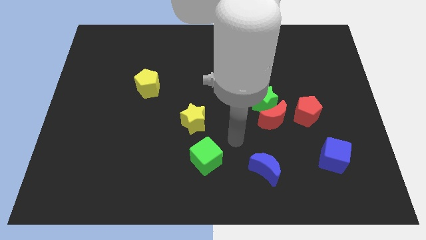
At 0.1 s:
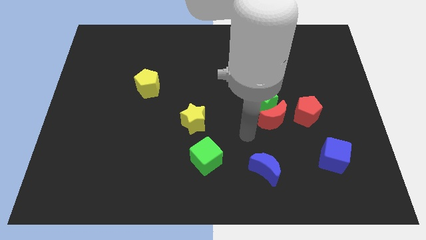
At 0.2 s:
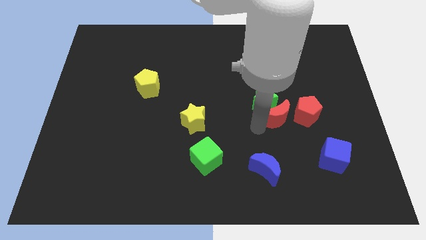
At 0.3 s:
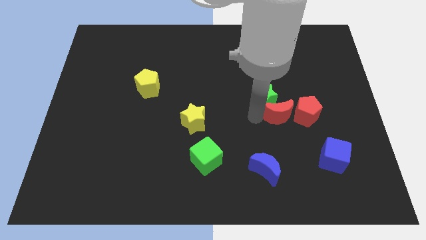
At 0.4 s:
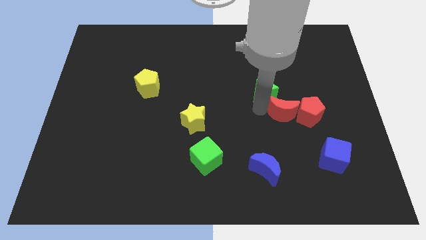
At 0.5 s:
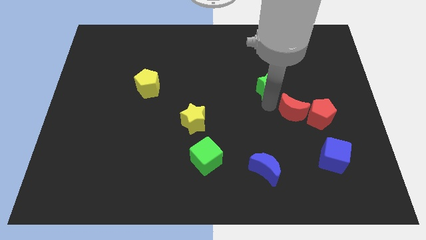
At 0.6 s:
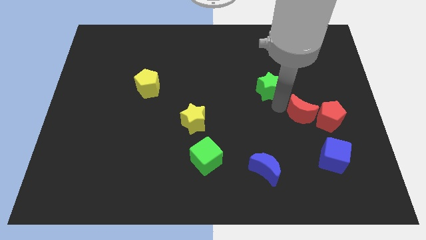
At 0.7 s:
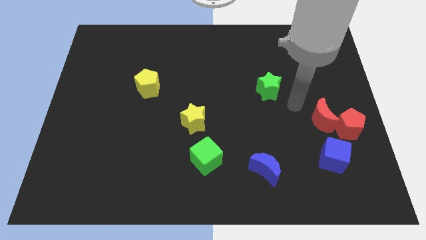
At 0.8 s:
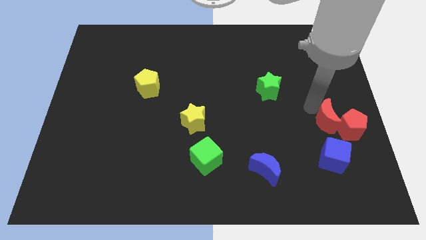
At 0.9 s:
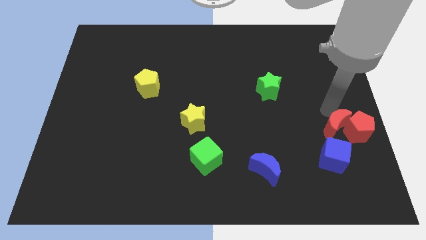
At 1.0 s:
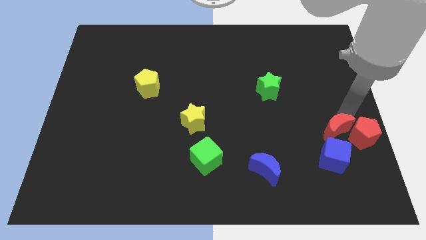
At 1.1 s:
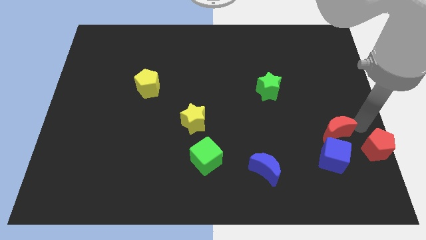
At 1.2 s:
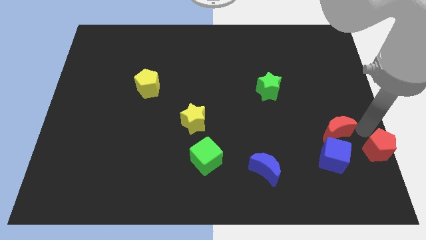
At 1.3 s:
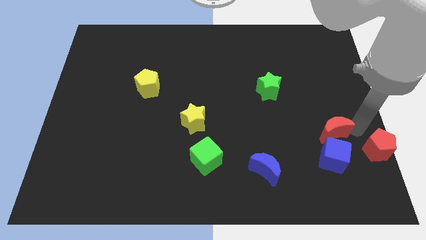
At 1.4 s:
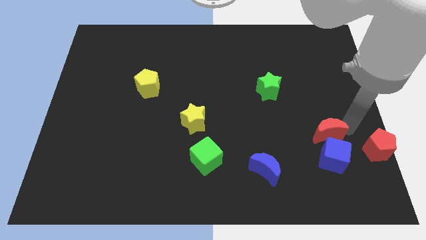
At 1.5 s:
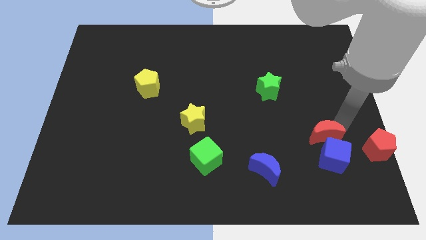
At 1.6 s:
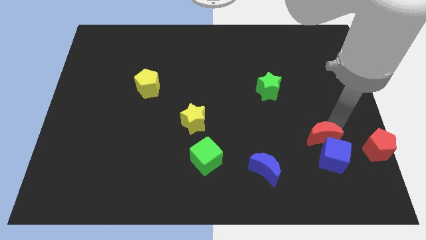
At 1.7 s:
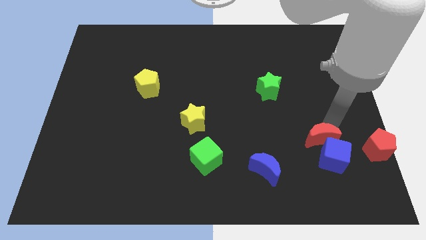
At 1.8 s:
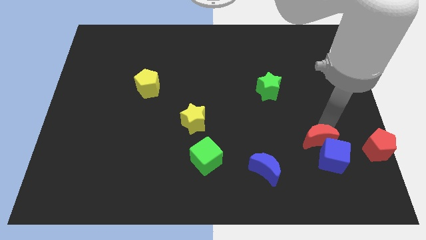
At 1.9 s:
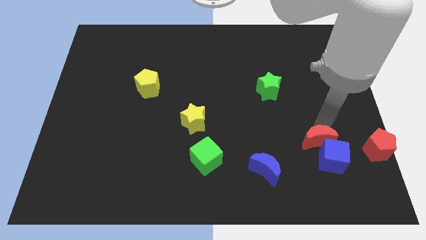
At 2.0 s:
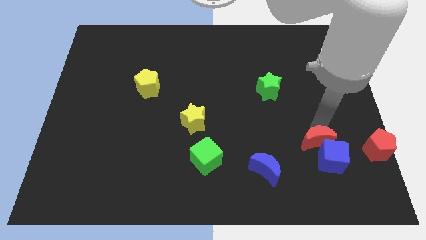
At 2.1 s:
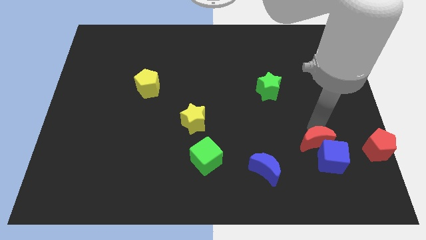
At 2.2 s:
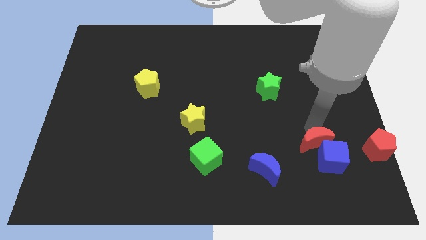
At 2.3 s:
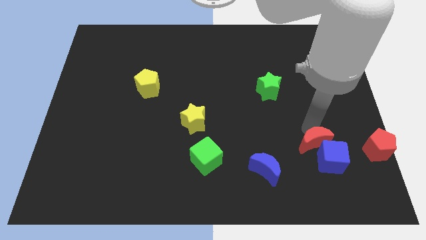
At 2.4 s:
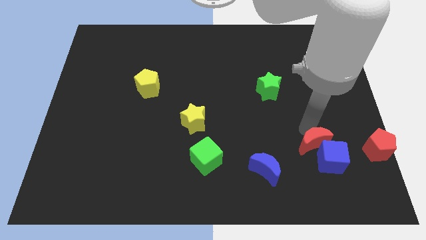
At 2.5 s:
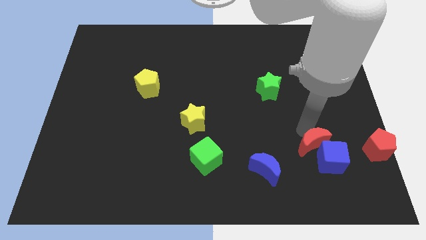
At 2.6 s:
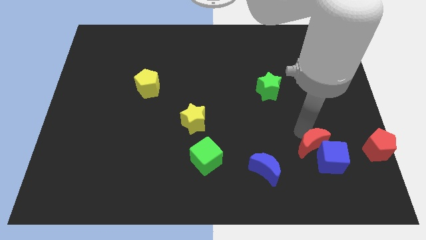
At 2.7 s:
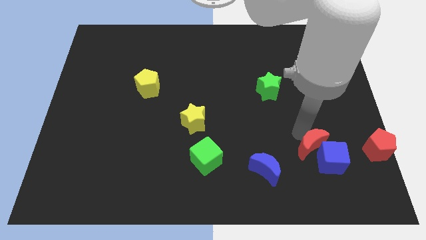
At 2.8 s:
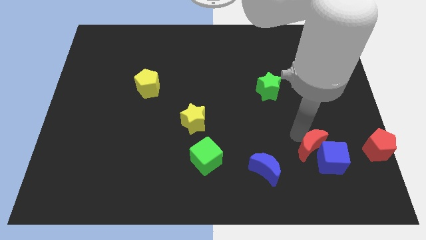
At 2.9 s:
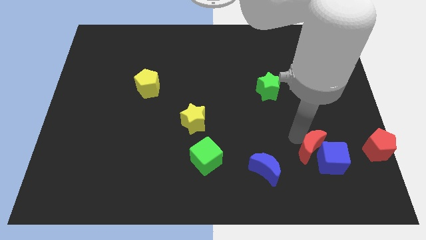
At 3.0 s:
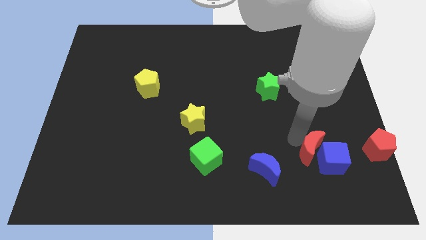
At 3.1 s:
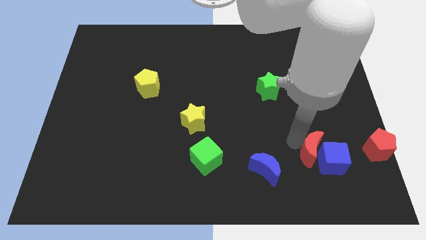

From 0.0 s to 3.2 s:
move the red moon away from the green star and red pentagon

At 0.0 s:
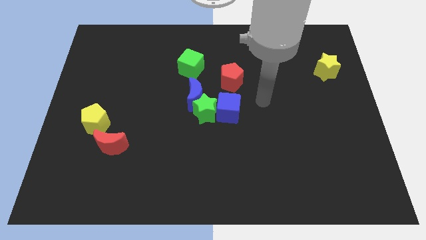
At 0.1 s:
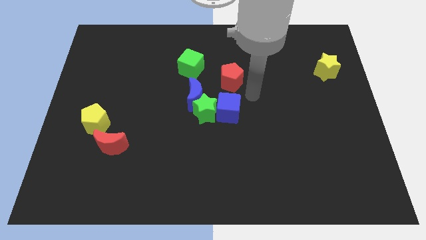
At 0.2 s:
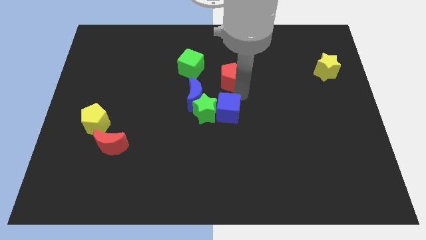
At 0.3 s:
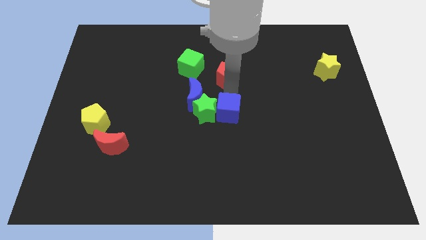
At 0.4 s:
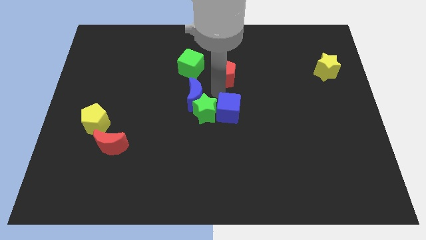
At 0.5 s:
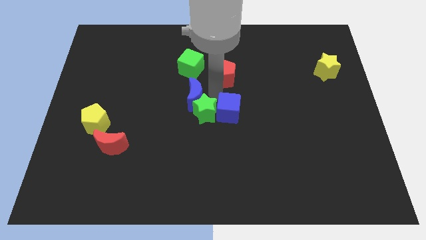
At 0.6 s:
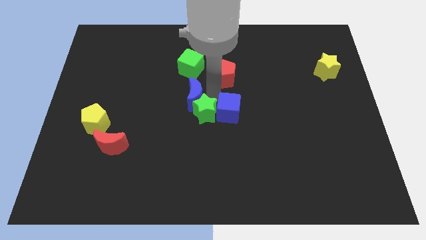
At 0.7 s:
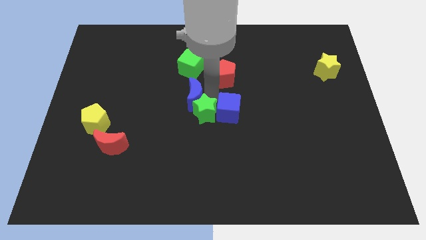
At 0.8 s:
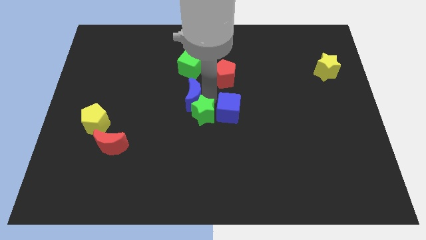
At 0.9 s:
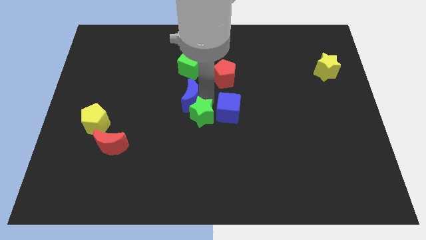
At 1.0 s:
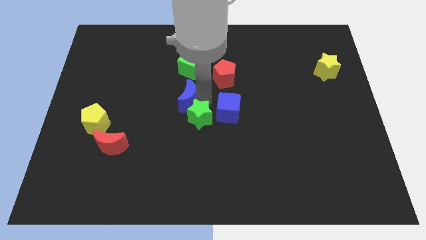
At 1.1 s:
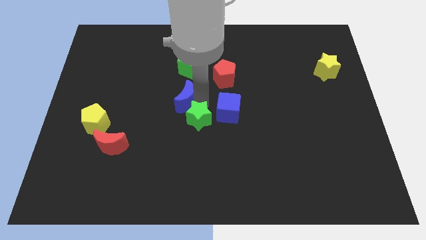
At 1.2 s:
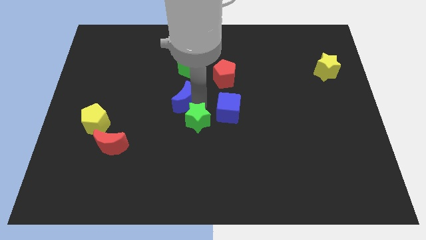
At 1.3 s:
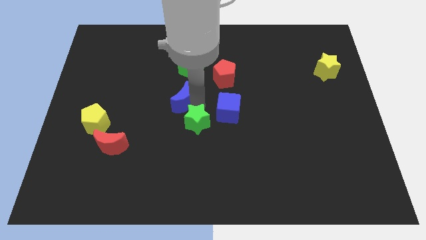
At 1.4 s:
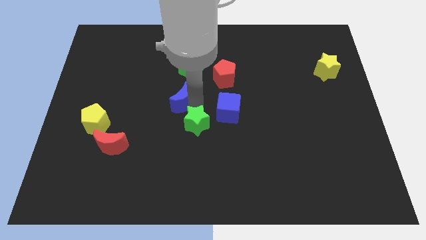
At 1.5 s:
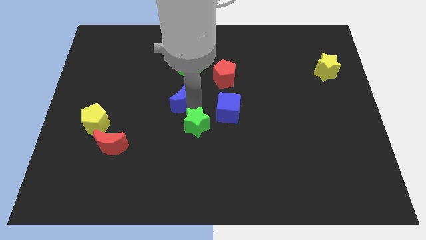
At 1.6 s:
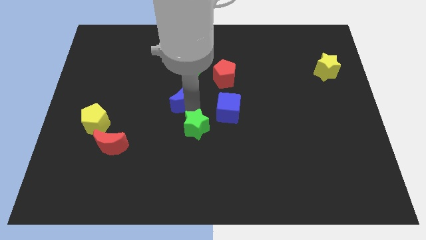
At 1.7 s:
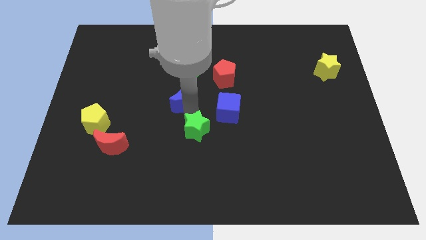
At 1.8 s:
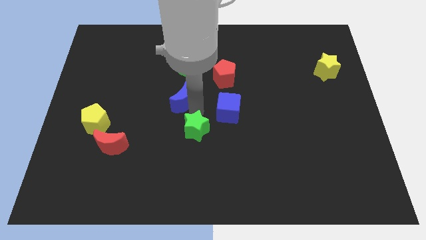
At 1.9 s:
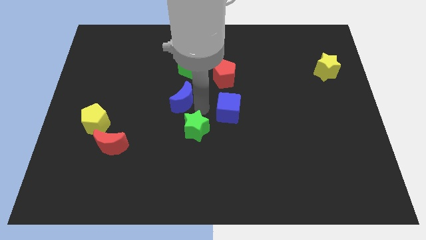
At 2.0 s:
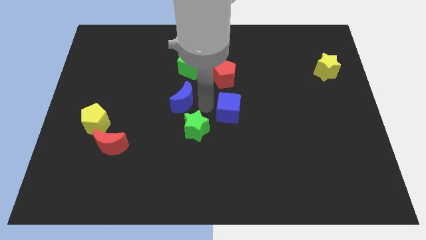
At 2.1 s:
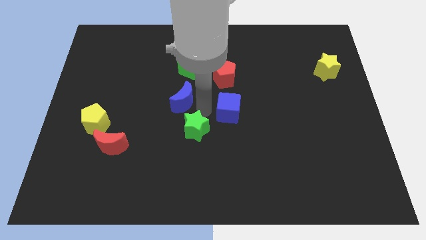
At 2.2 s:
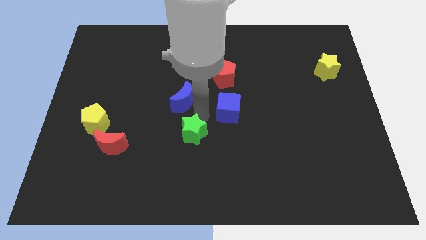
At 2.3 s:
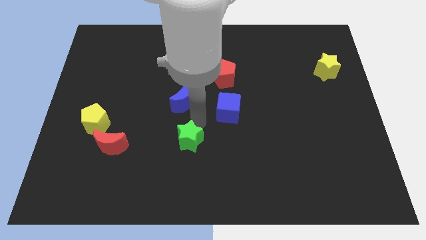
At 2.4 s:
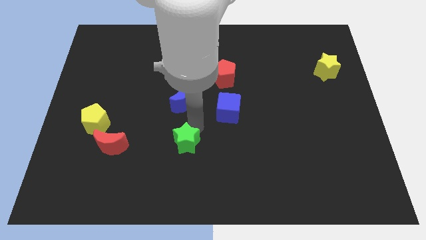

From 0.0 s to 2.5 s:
separate the green star from the blue moon and blue cube

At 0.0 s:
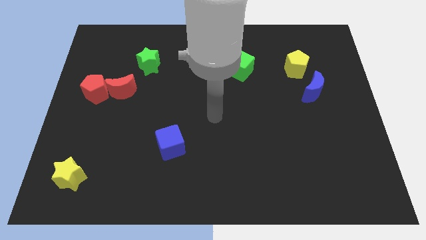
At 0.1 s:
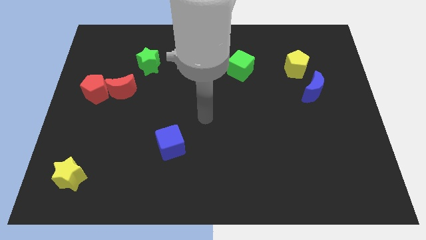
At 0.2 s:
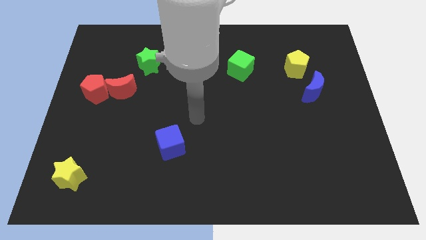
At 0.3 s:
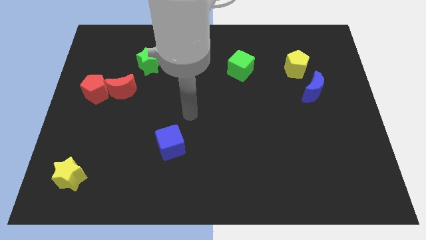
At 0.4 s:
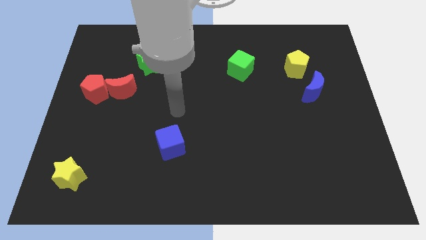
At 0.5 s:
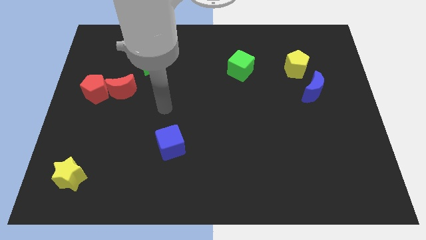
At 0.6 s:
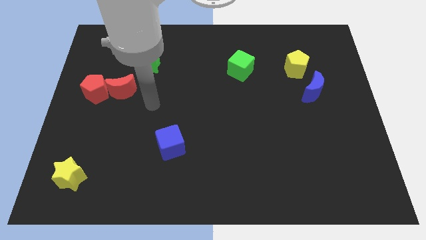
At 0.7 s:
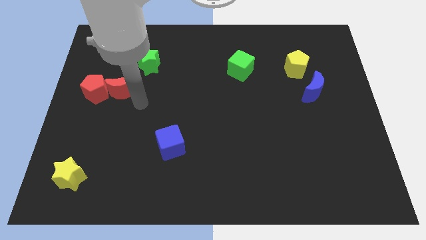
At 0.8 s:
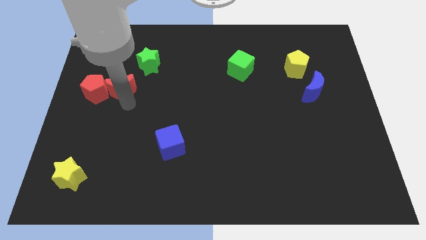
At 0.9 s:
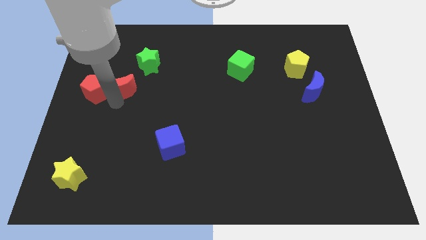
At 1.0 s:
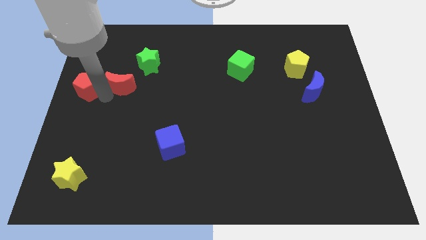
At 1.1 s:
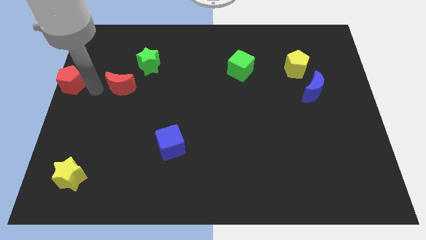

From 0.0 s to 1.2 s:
pull the red moon apart from the red pentagon

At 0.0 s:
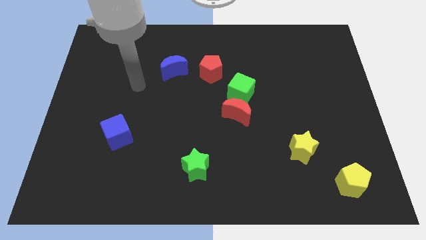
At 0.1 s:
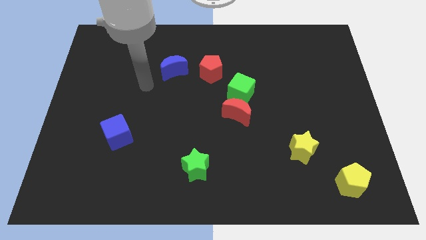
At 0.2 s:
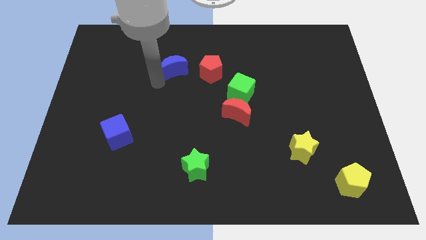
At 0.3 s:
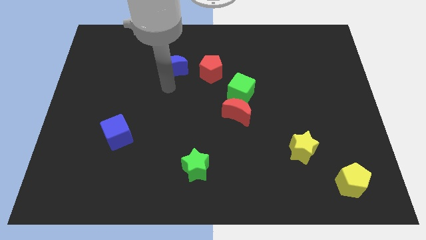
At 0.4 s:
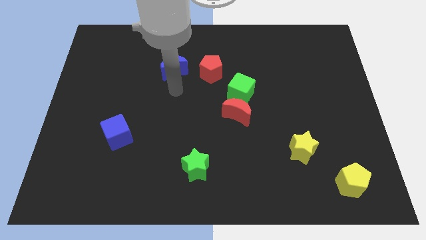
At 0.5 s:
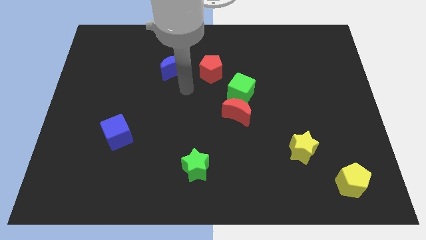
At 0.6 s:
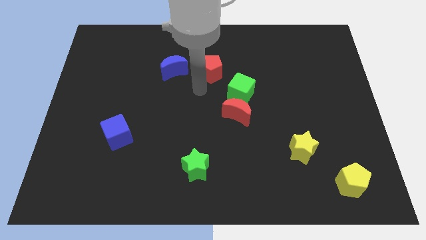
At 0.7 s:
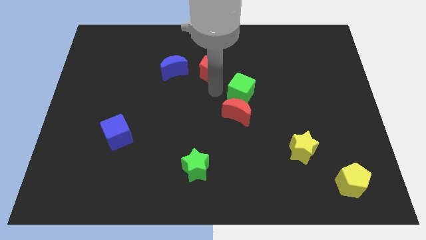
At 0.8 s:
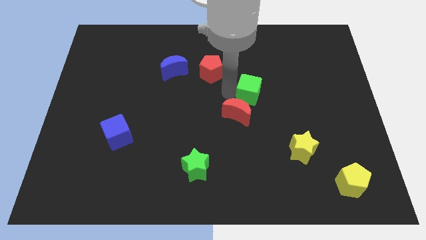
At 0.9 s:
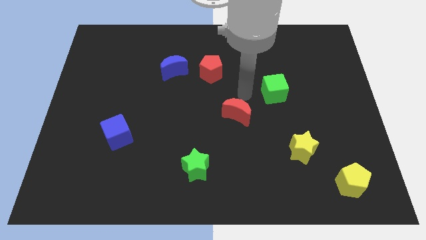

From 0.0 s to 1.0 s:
separate the red moon from the green cube

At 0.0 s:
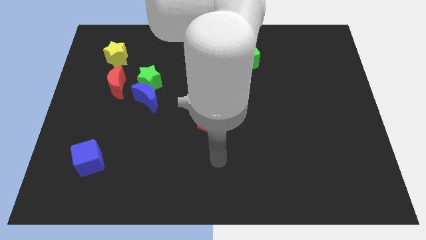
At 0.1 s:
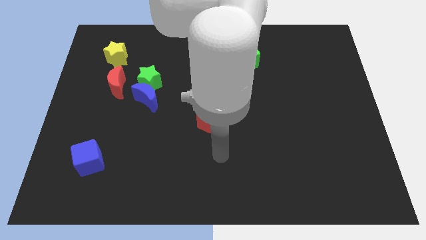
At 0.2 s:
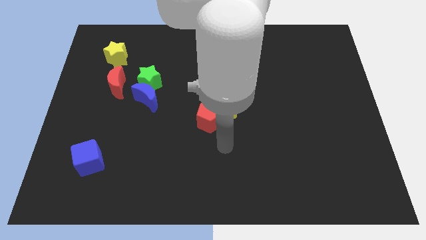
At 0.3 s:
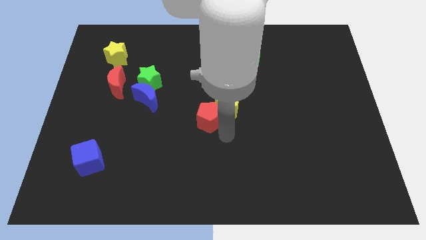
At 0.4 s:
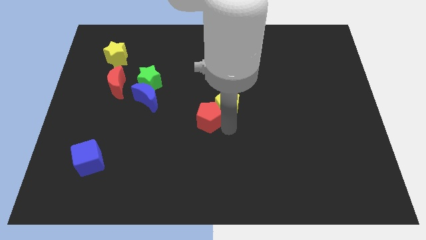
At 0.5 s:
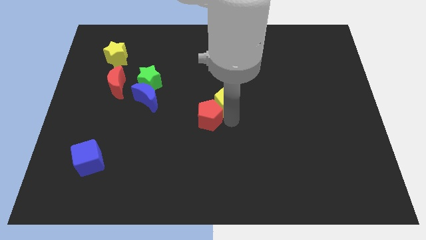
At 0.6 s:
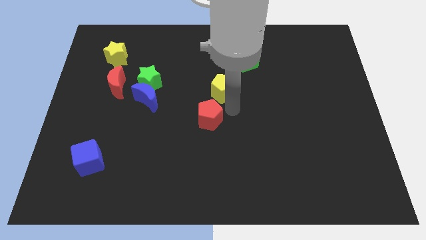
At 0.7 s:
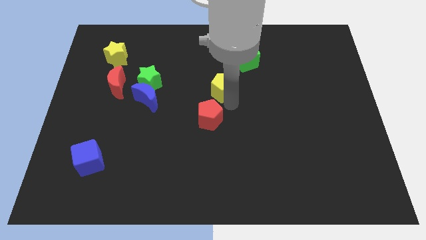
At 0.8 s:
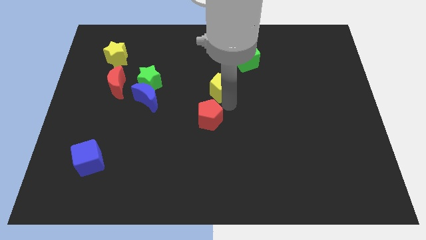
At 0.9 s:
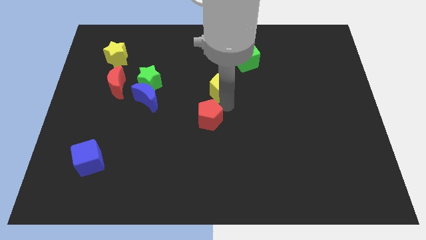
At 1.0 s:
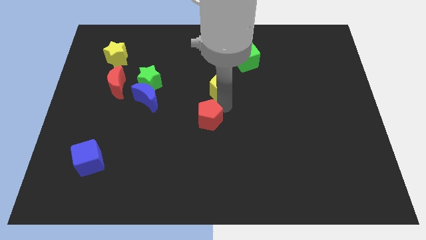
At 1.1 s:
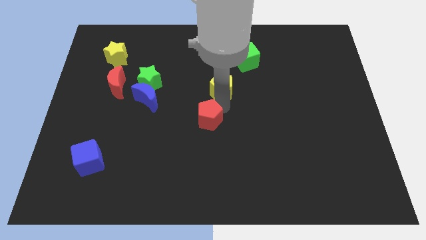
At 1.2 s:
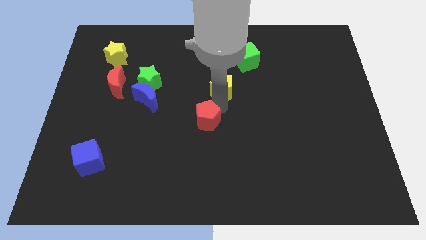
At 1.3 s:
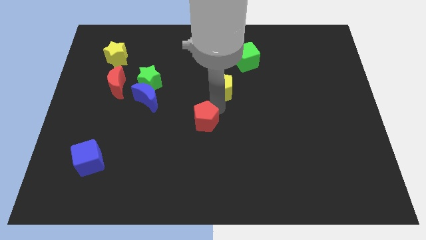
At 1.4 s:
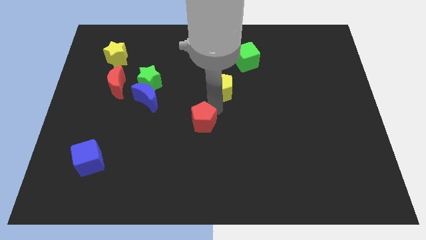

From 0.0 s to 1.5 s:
pull the red pentagon apart from the yellow pentagon
